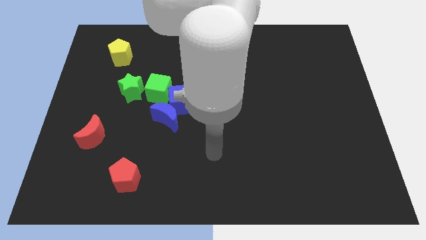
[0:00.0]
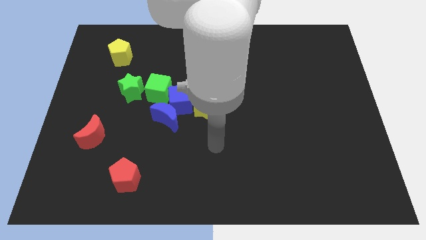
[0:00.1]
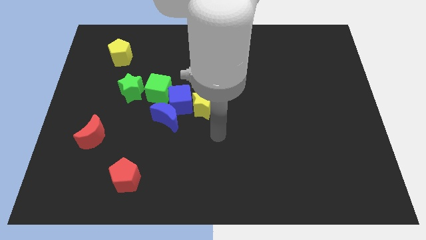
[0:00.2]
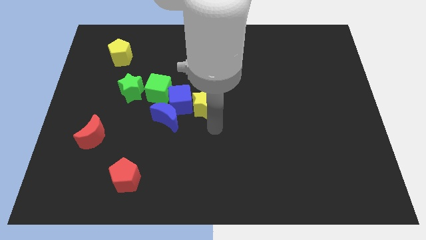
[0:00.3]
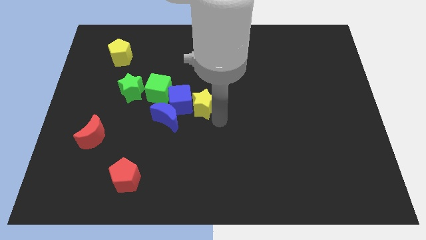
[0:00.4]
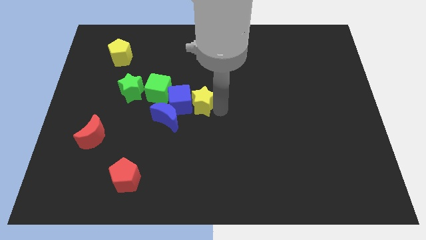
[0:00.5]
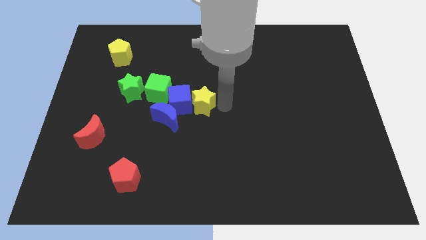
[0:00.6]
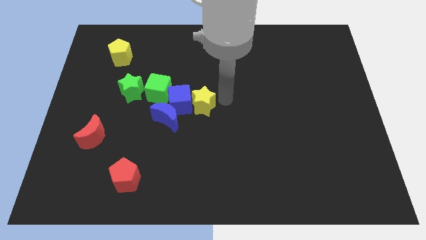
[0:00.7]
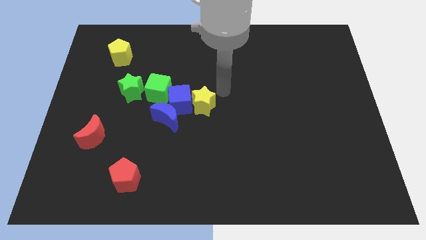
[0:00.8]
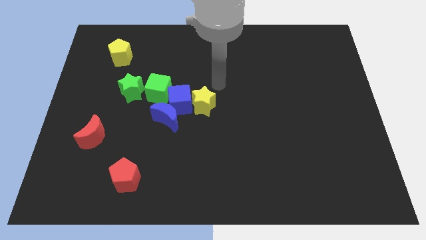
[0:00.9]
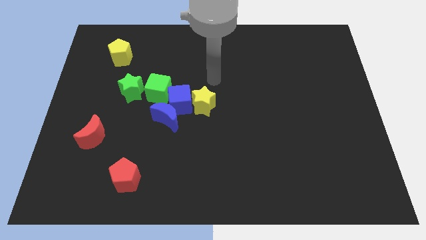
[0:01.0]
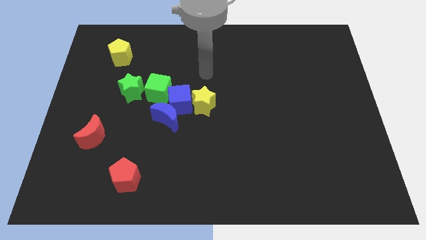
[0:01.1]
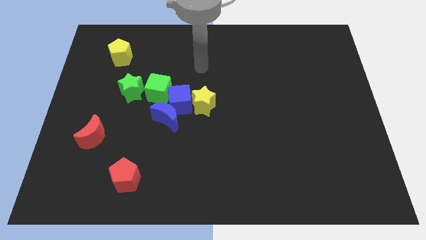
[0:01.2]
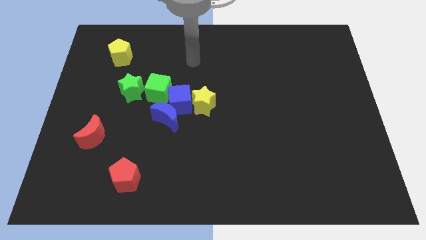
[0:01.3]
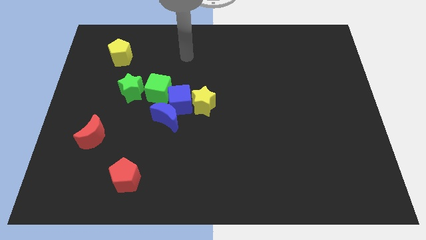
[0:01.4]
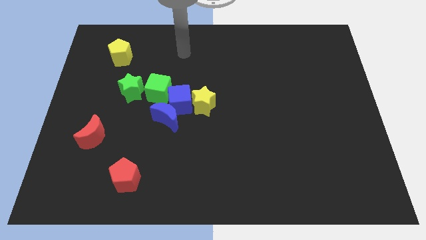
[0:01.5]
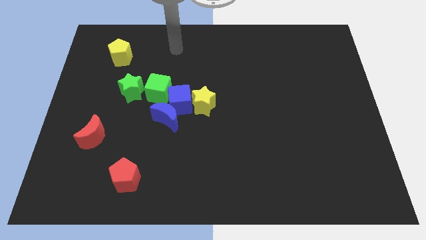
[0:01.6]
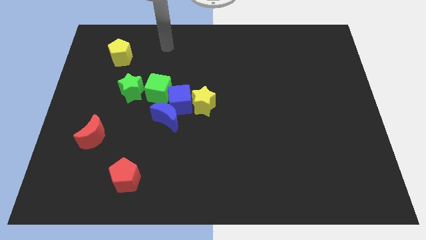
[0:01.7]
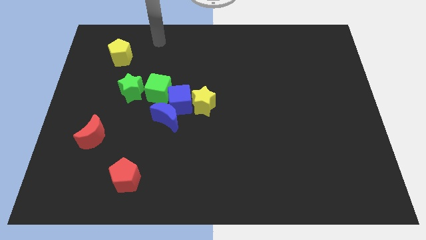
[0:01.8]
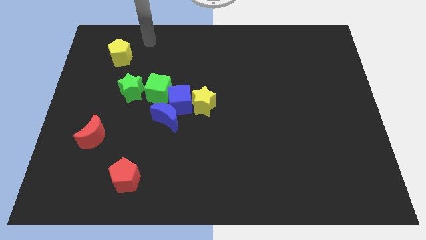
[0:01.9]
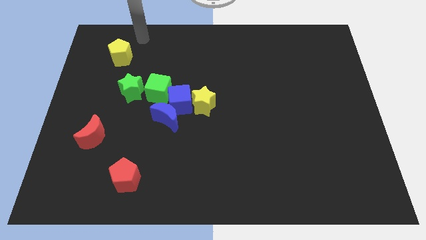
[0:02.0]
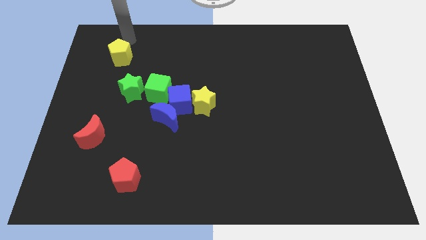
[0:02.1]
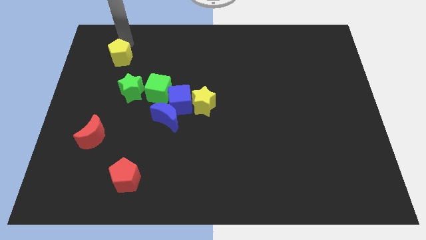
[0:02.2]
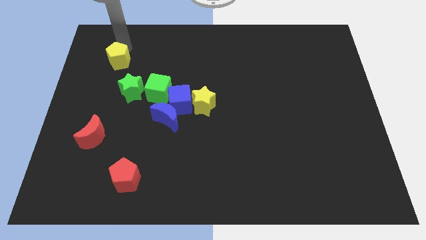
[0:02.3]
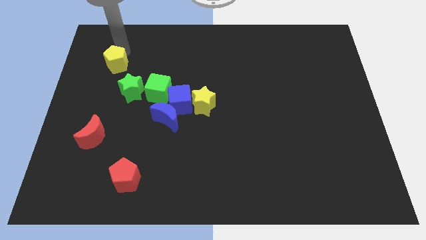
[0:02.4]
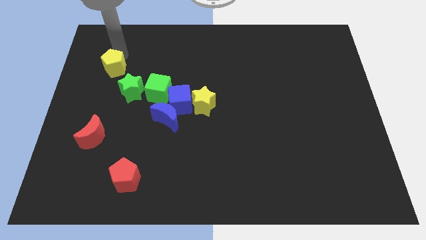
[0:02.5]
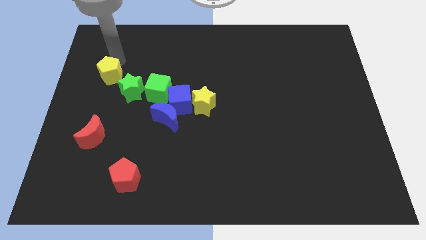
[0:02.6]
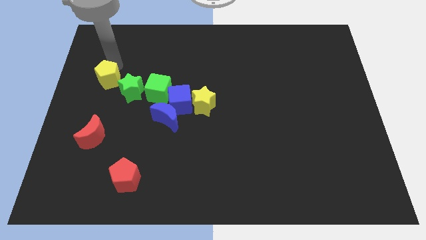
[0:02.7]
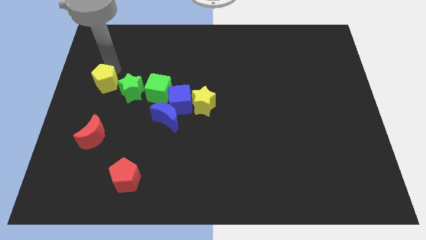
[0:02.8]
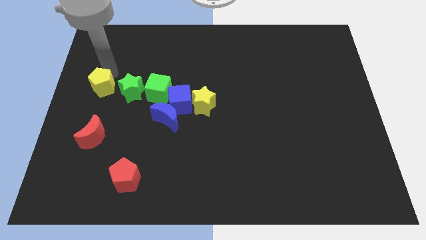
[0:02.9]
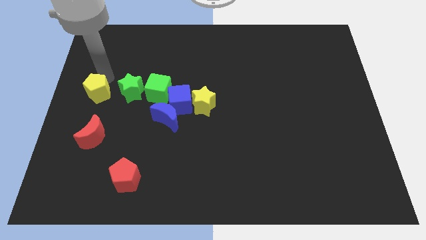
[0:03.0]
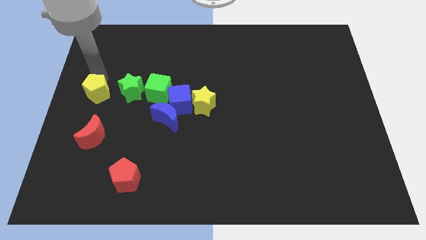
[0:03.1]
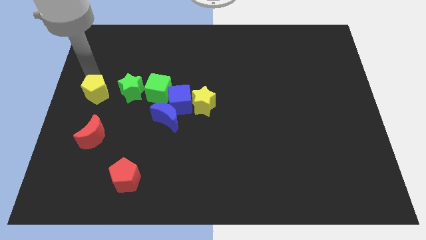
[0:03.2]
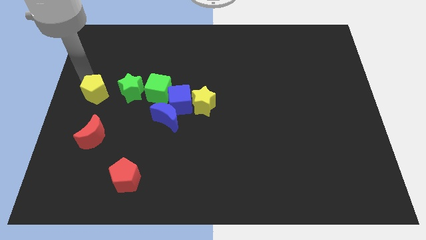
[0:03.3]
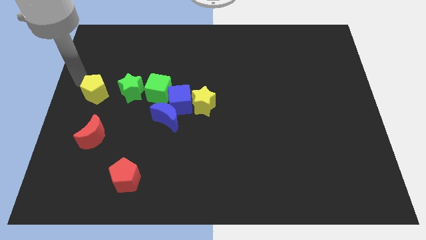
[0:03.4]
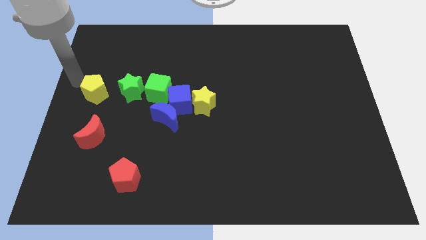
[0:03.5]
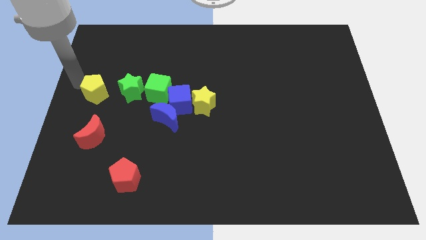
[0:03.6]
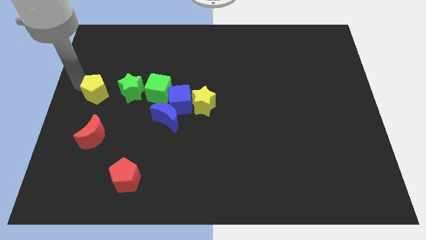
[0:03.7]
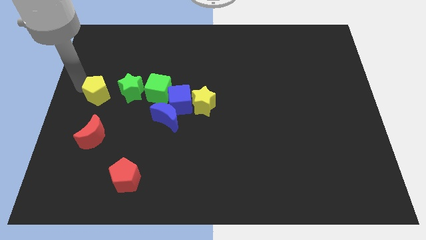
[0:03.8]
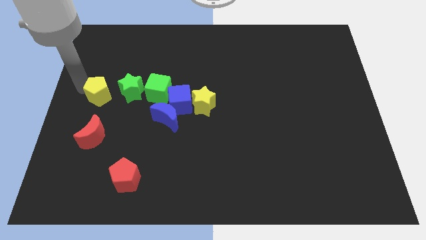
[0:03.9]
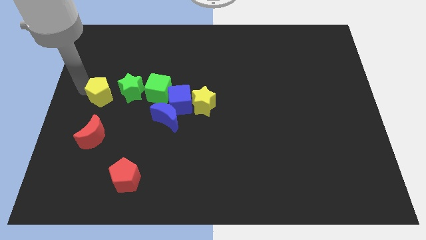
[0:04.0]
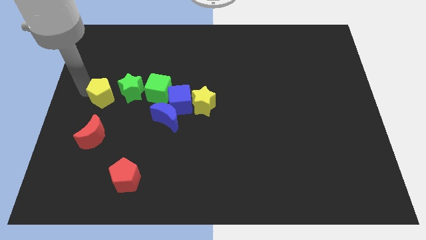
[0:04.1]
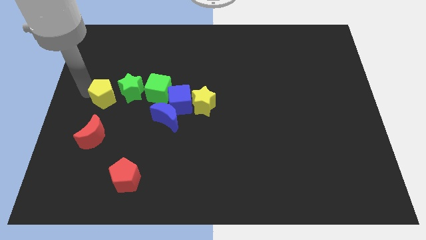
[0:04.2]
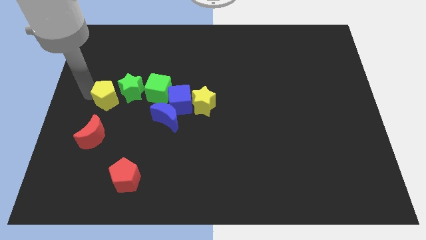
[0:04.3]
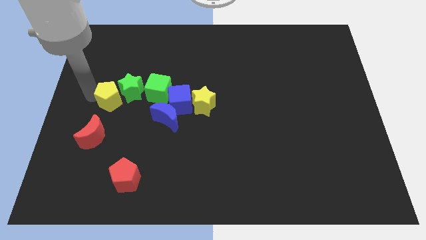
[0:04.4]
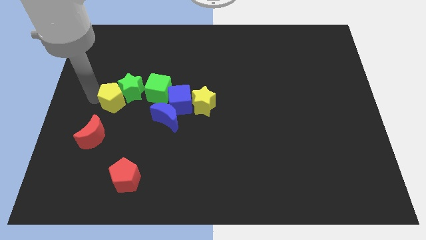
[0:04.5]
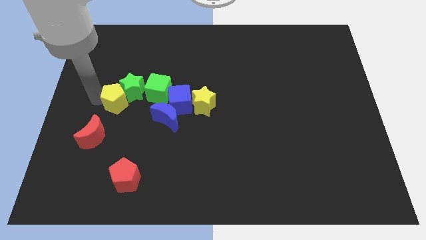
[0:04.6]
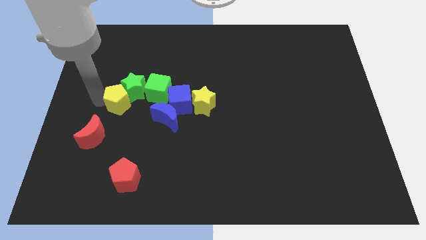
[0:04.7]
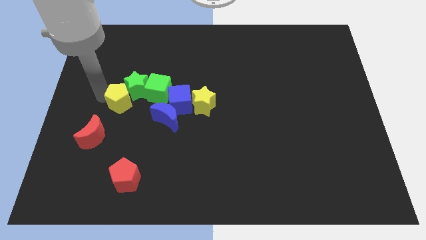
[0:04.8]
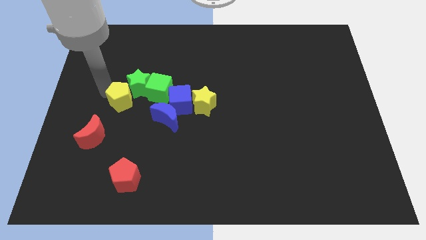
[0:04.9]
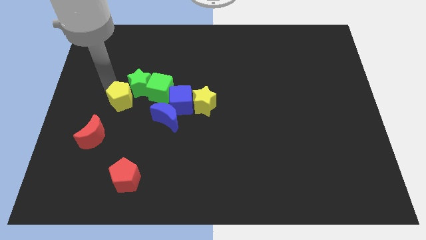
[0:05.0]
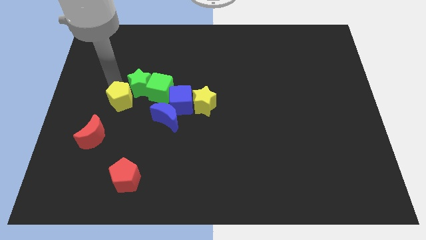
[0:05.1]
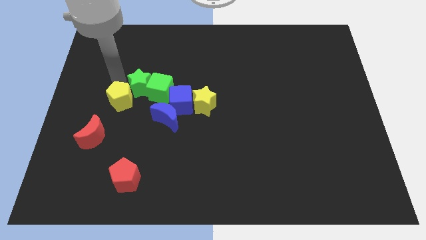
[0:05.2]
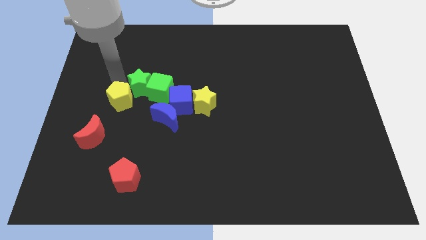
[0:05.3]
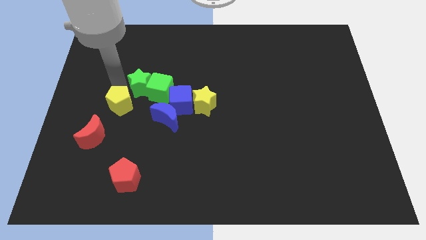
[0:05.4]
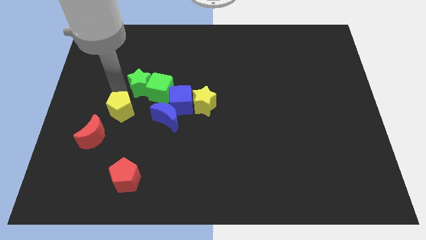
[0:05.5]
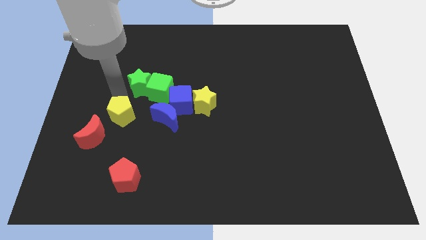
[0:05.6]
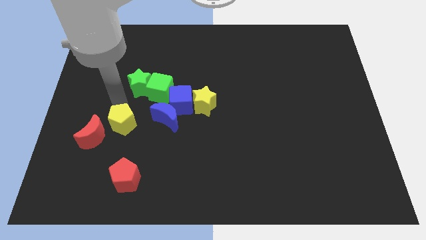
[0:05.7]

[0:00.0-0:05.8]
put the yellow pentagon right of the red moon

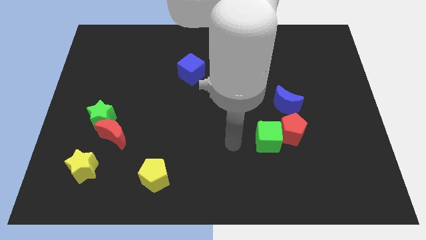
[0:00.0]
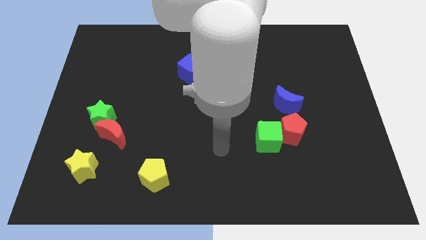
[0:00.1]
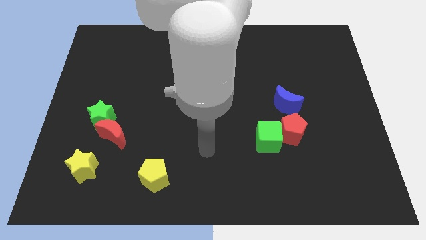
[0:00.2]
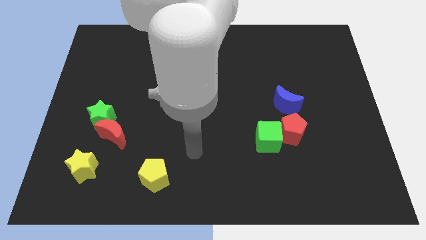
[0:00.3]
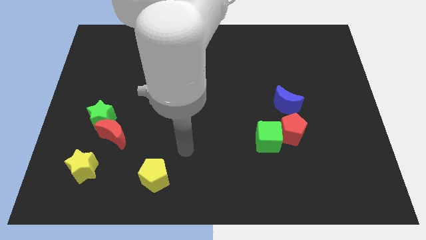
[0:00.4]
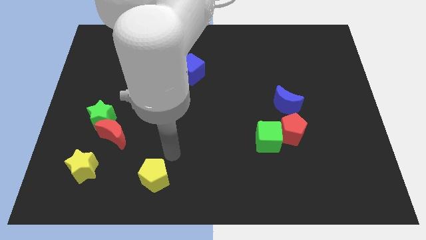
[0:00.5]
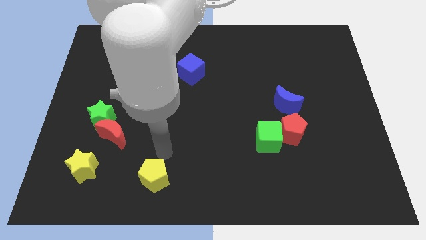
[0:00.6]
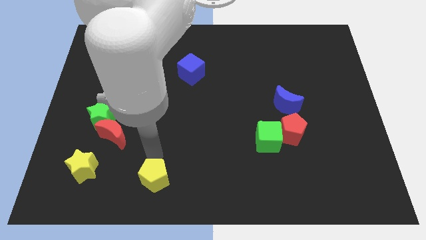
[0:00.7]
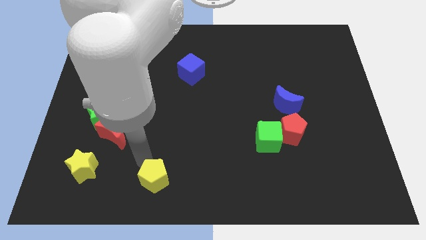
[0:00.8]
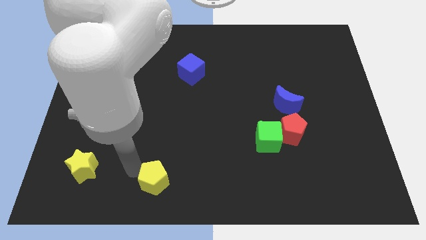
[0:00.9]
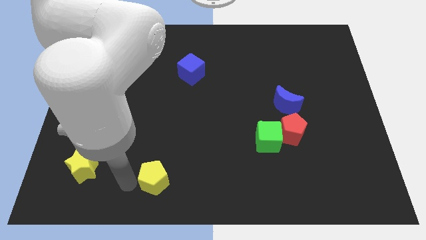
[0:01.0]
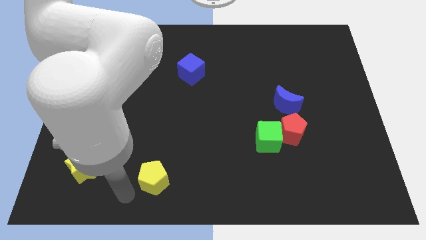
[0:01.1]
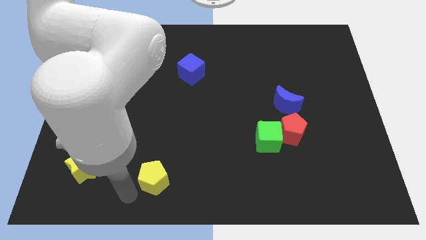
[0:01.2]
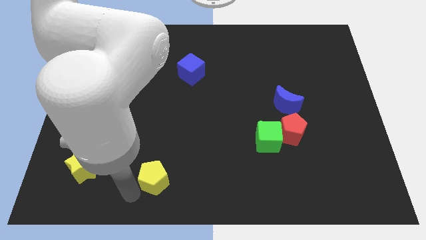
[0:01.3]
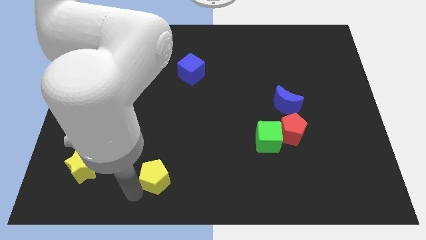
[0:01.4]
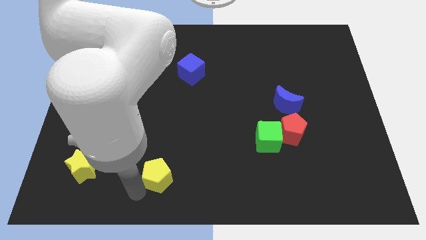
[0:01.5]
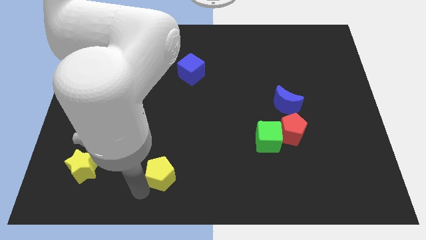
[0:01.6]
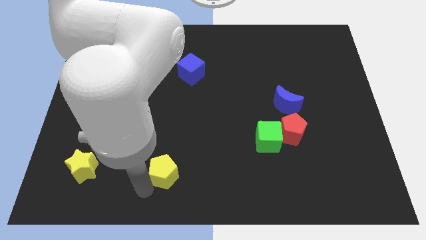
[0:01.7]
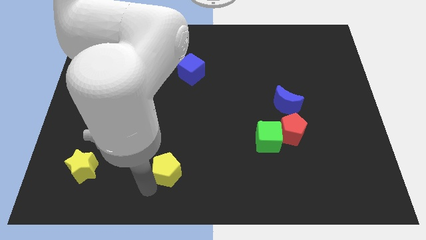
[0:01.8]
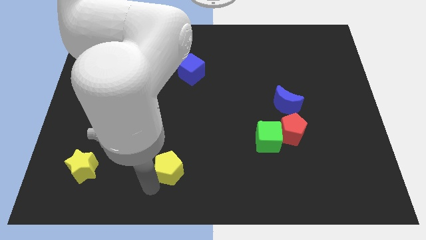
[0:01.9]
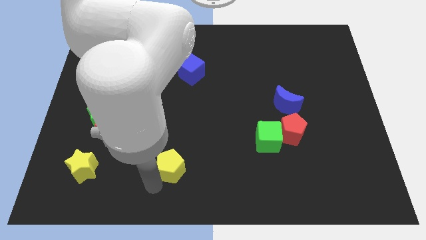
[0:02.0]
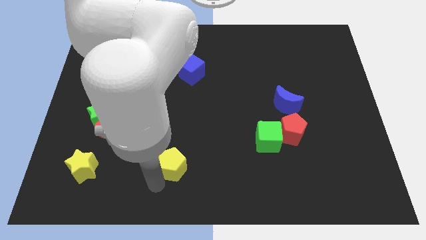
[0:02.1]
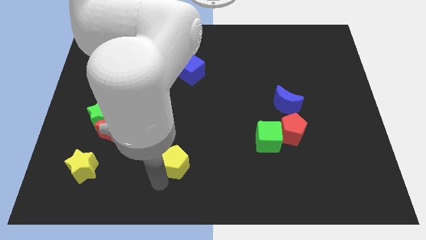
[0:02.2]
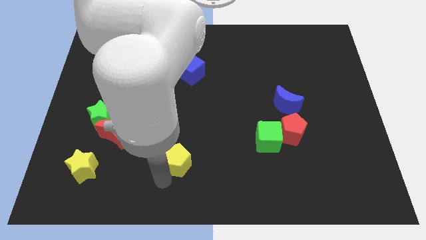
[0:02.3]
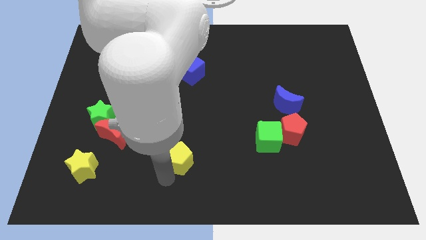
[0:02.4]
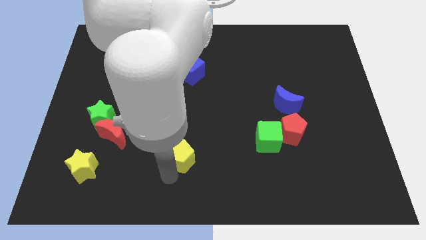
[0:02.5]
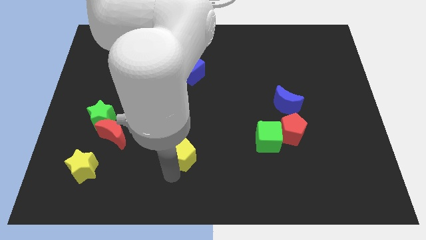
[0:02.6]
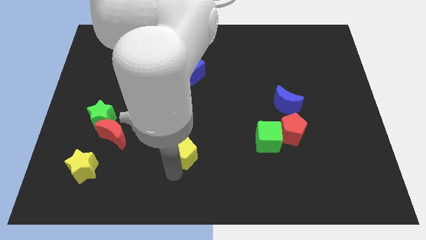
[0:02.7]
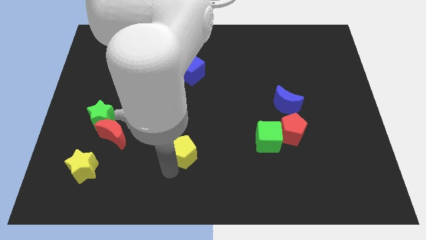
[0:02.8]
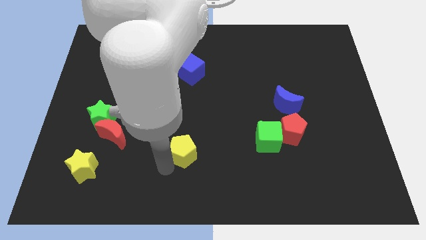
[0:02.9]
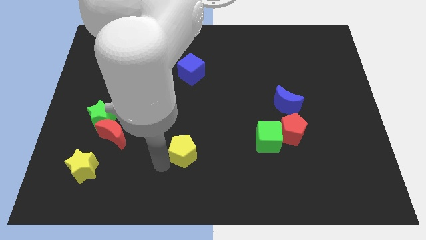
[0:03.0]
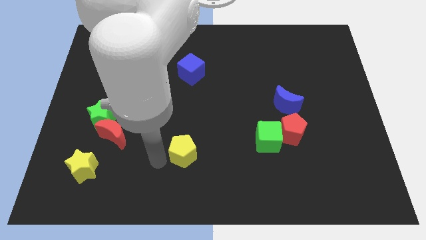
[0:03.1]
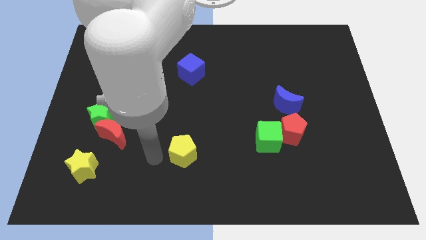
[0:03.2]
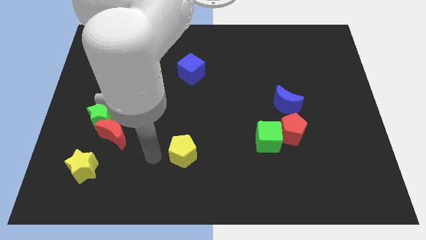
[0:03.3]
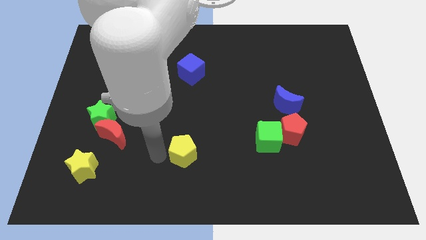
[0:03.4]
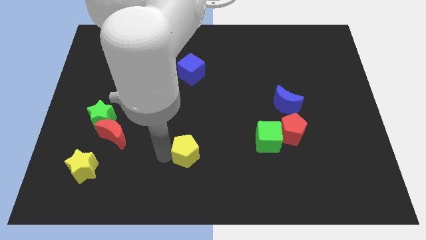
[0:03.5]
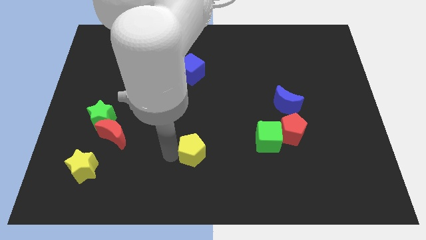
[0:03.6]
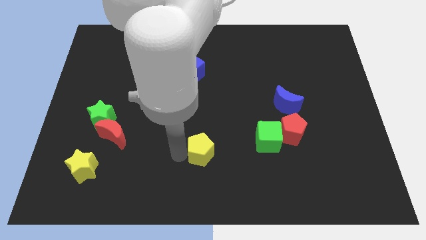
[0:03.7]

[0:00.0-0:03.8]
put the yellow pentagon to the left of the green cube
